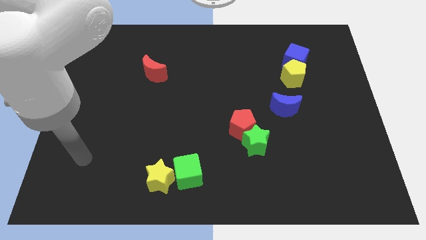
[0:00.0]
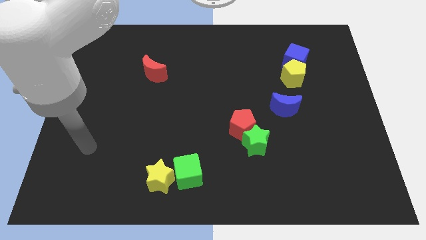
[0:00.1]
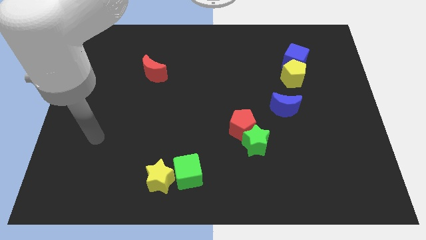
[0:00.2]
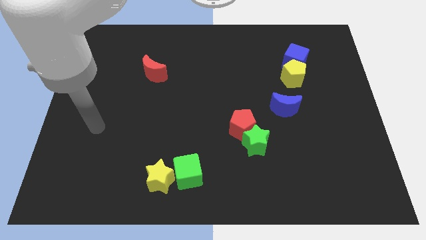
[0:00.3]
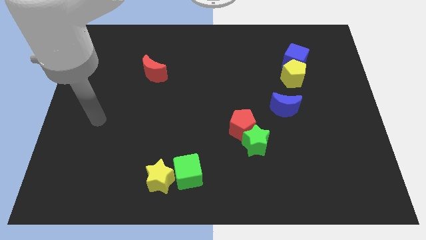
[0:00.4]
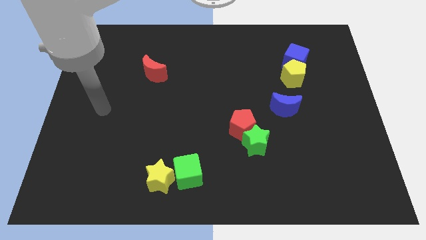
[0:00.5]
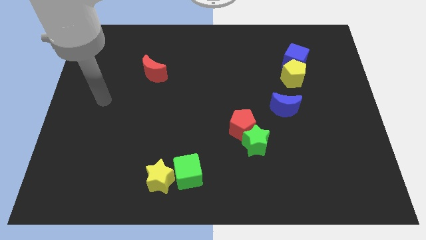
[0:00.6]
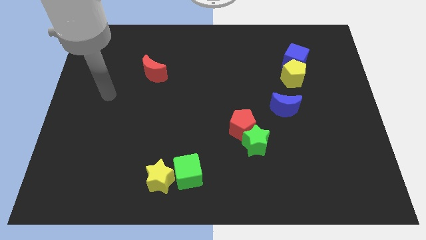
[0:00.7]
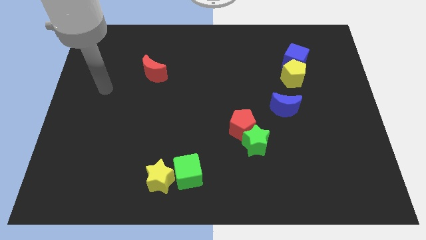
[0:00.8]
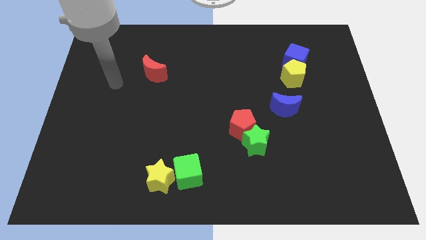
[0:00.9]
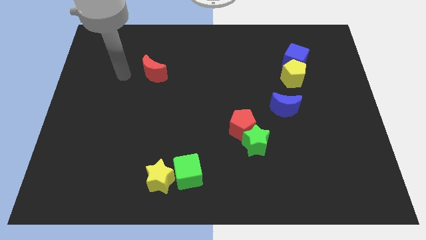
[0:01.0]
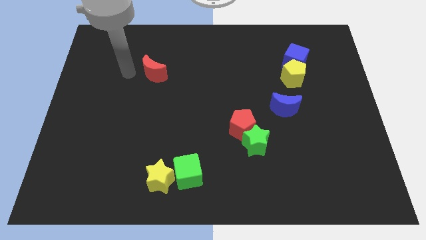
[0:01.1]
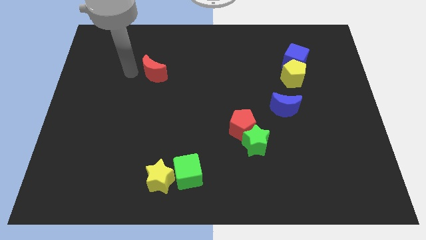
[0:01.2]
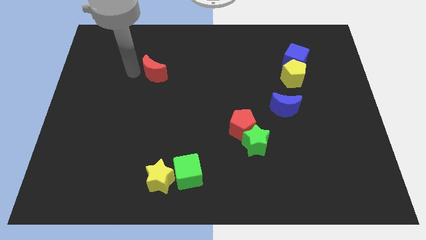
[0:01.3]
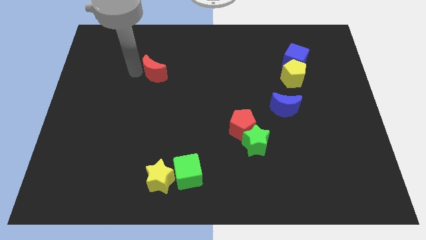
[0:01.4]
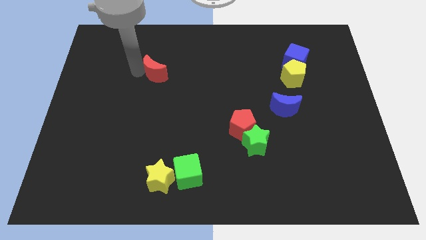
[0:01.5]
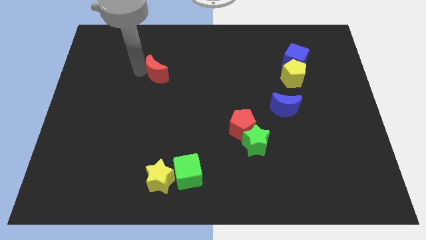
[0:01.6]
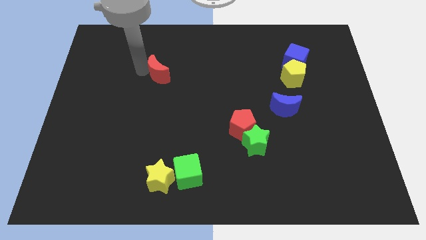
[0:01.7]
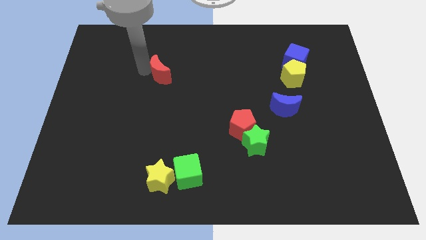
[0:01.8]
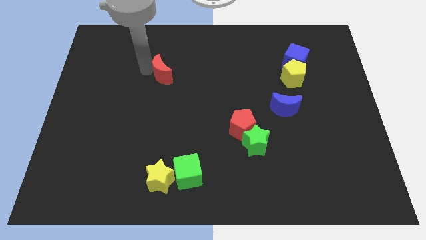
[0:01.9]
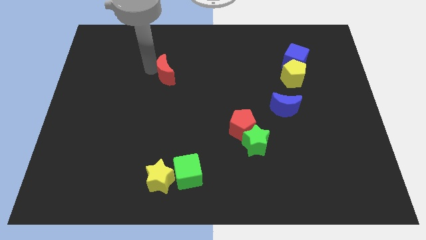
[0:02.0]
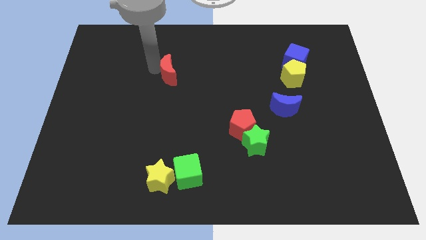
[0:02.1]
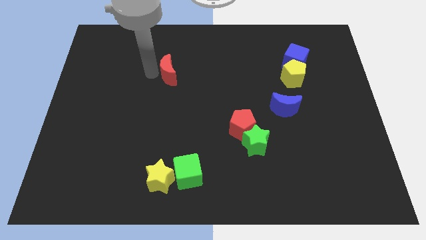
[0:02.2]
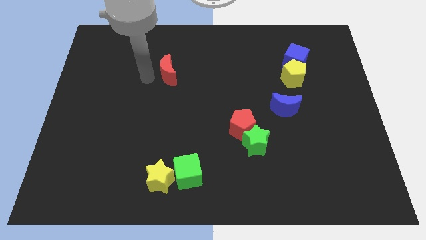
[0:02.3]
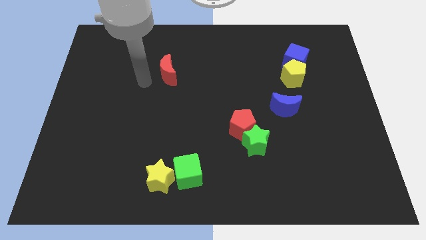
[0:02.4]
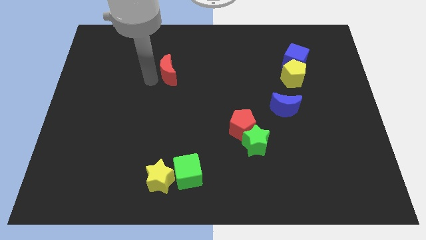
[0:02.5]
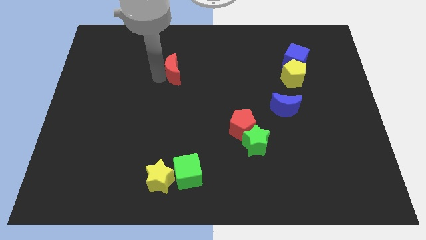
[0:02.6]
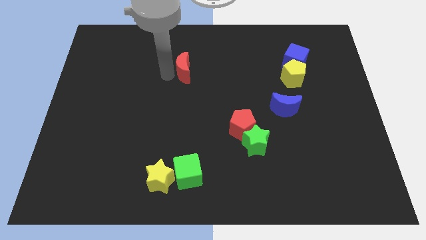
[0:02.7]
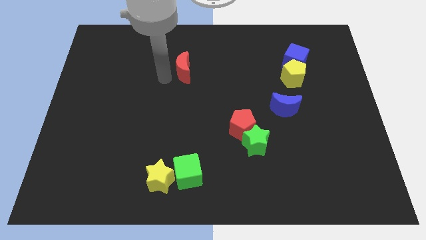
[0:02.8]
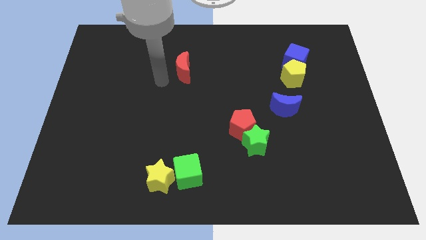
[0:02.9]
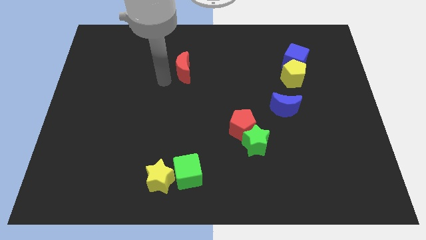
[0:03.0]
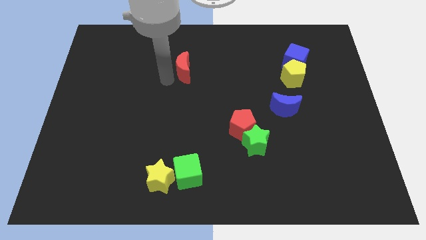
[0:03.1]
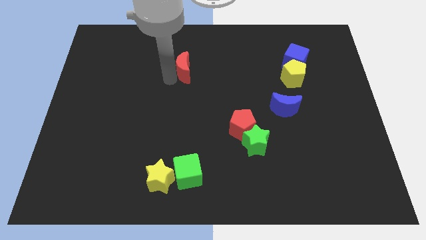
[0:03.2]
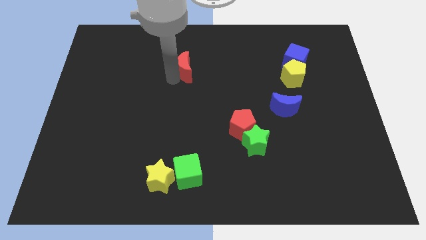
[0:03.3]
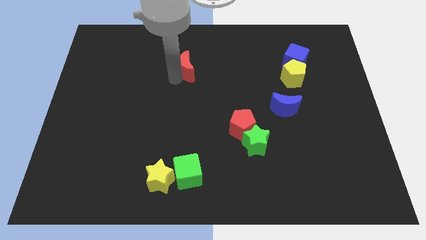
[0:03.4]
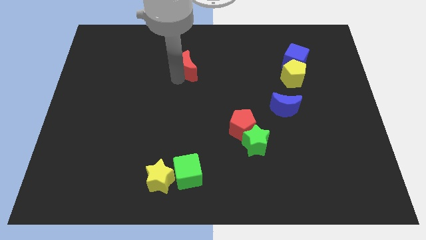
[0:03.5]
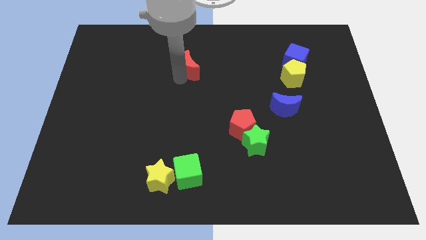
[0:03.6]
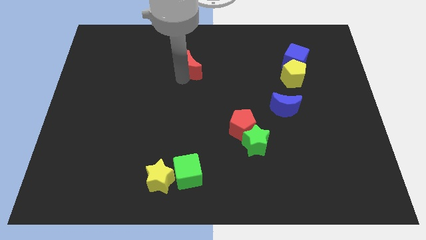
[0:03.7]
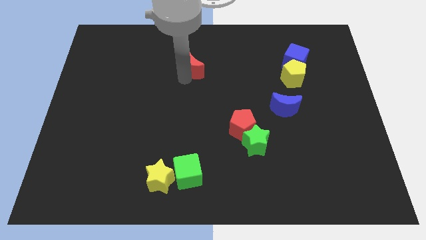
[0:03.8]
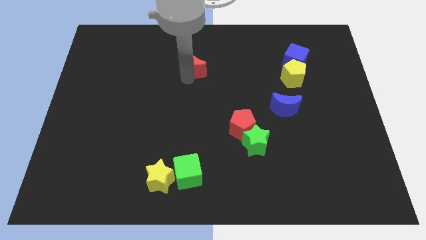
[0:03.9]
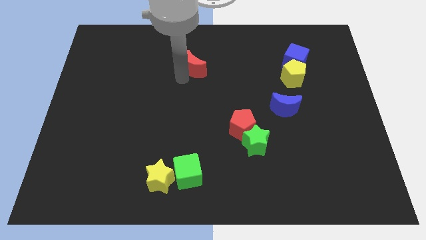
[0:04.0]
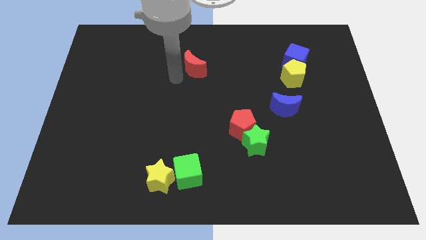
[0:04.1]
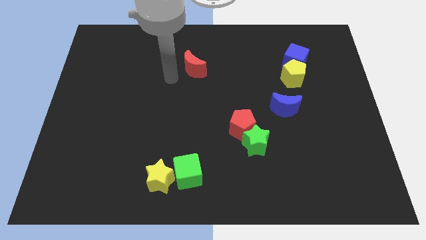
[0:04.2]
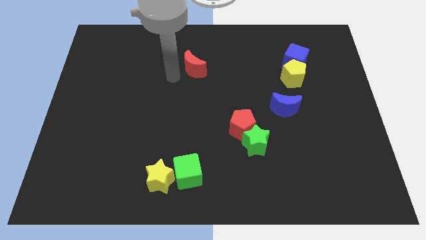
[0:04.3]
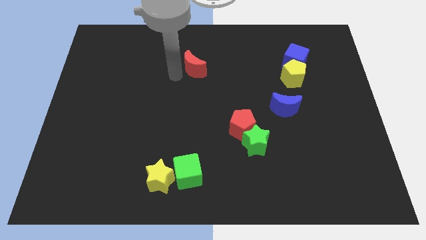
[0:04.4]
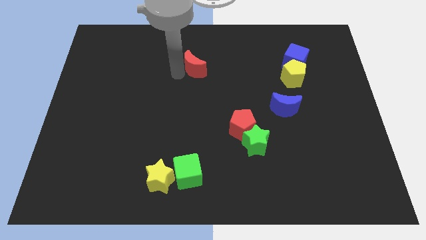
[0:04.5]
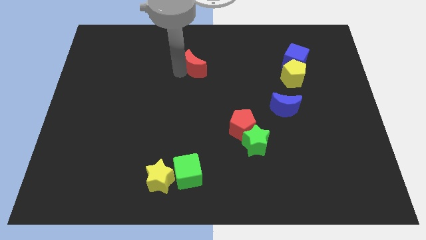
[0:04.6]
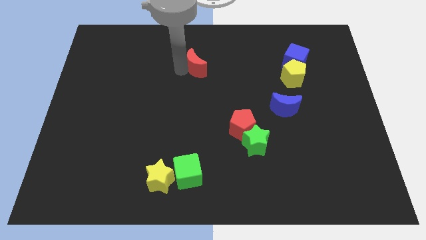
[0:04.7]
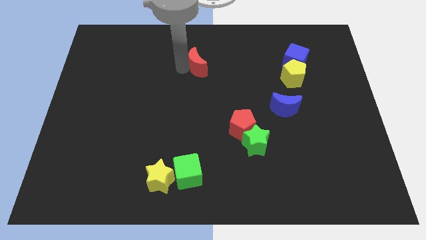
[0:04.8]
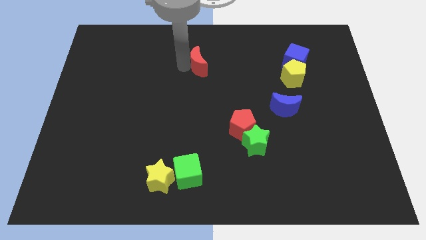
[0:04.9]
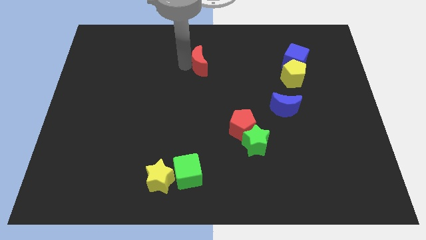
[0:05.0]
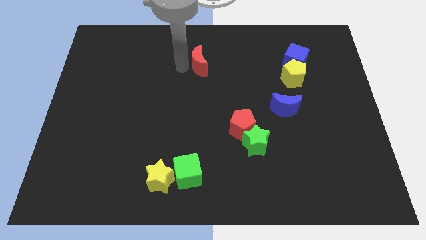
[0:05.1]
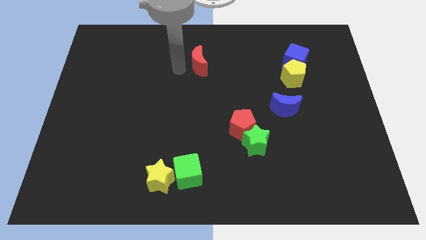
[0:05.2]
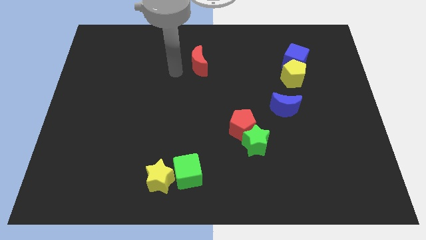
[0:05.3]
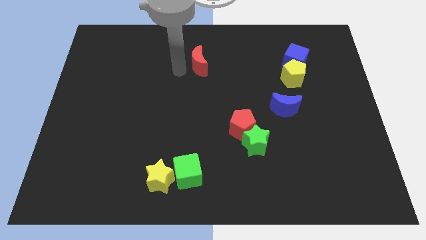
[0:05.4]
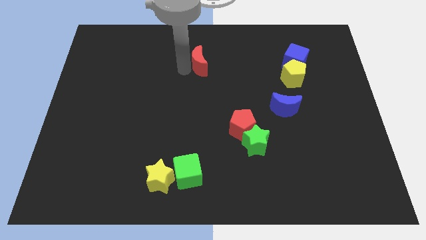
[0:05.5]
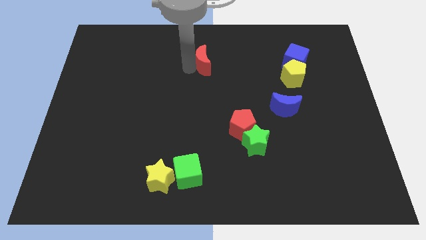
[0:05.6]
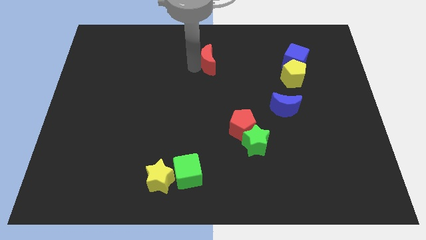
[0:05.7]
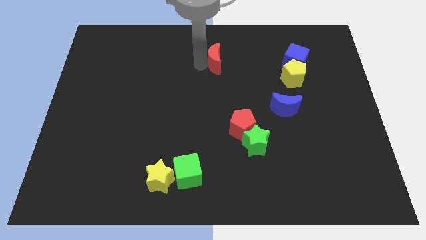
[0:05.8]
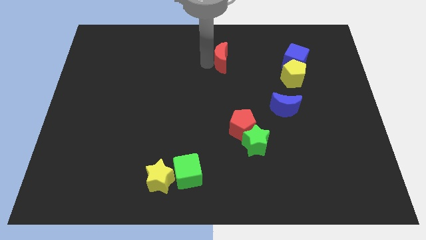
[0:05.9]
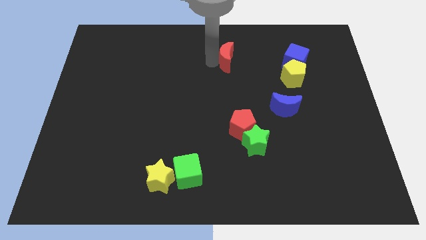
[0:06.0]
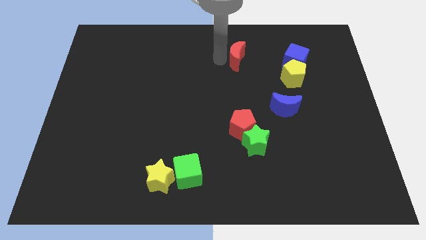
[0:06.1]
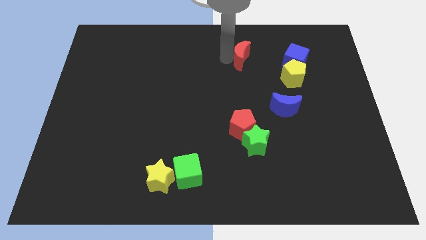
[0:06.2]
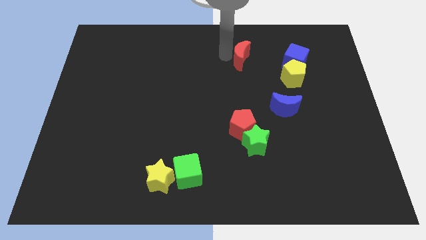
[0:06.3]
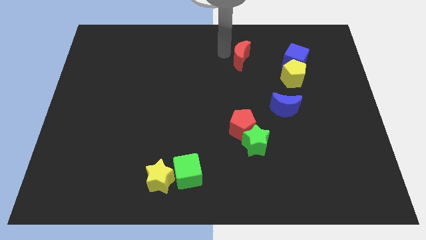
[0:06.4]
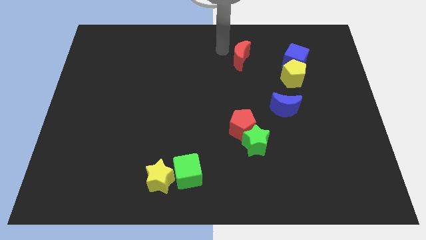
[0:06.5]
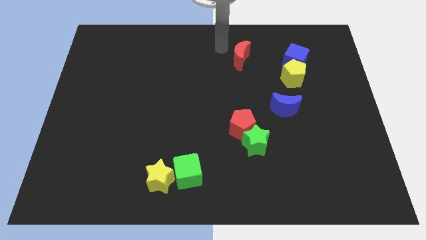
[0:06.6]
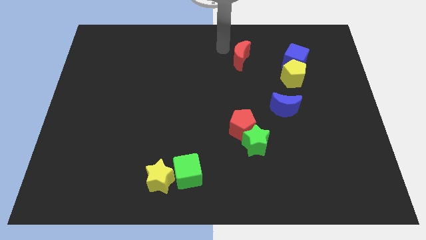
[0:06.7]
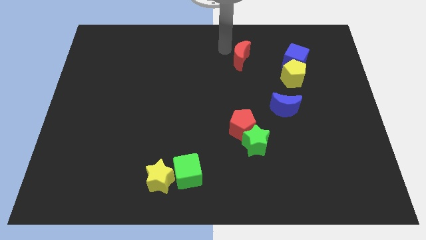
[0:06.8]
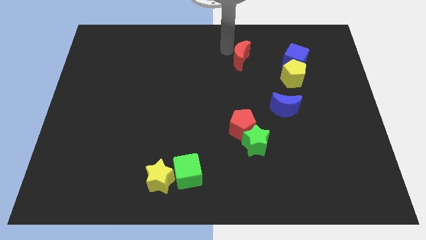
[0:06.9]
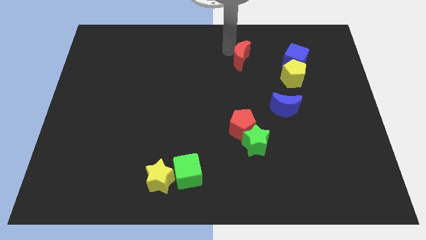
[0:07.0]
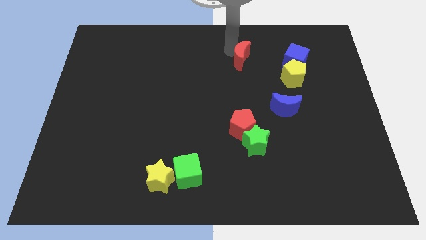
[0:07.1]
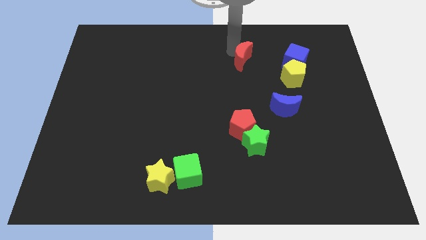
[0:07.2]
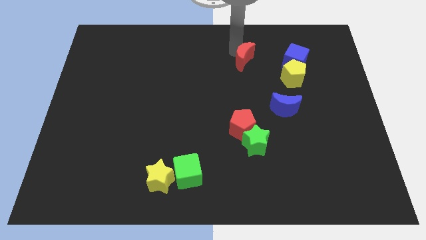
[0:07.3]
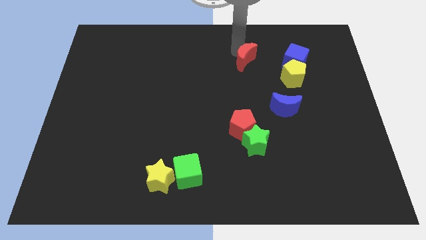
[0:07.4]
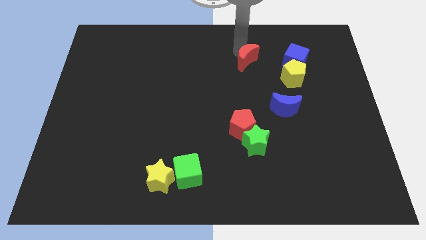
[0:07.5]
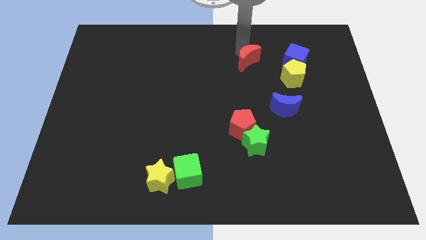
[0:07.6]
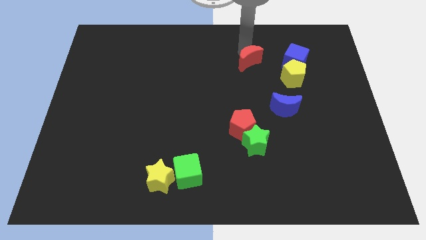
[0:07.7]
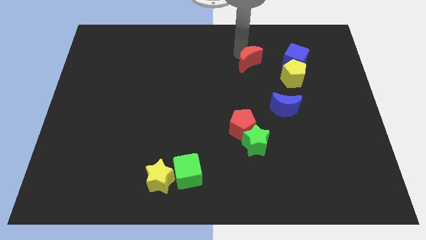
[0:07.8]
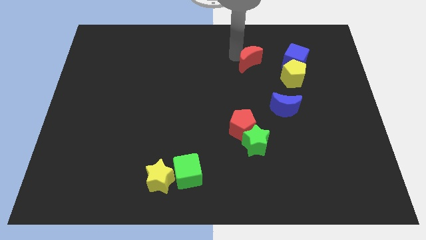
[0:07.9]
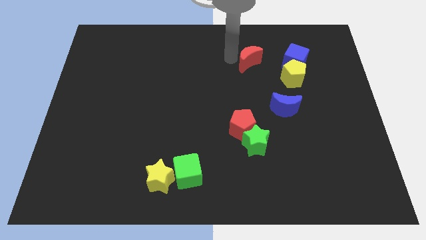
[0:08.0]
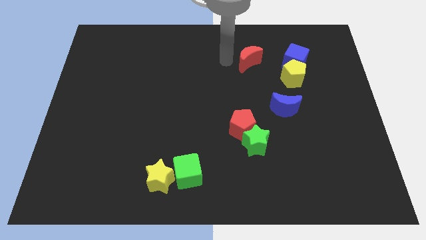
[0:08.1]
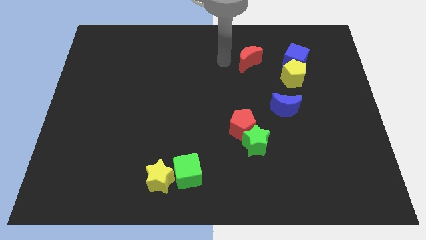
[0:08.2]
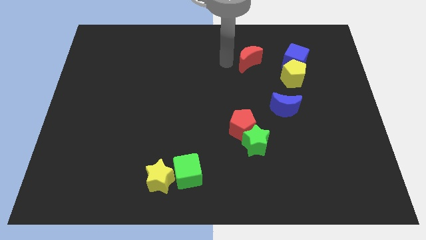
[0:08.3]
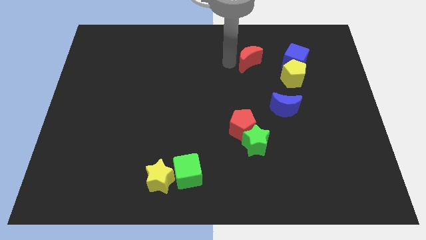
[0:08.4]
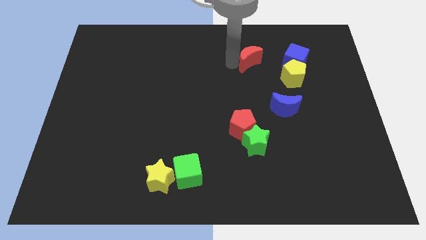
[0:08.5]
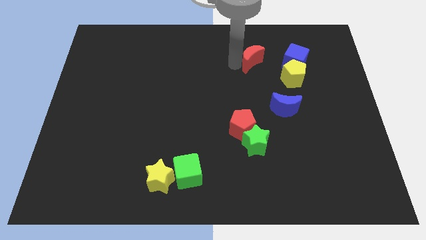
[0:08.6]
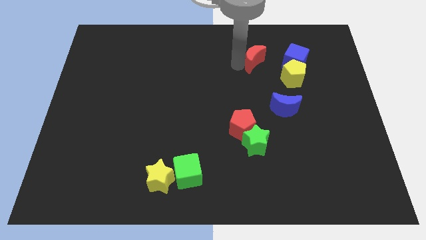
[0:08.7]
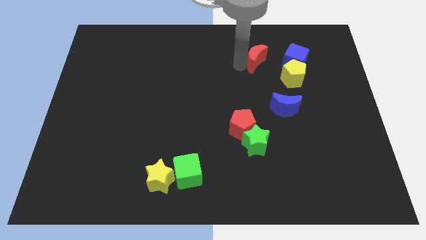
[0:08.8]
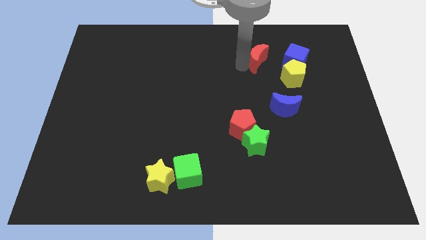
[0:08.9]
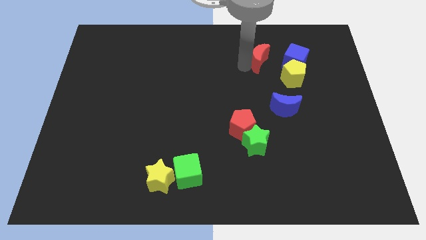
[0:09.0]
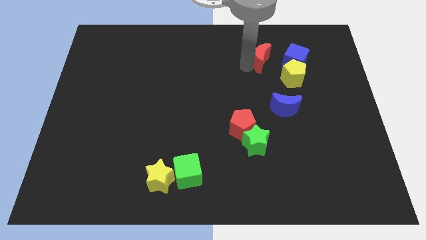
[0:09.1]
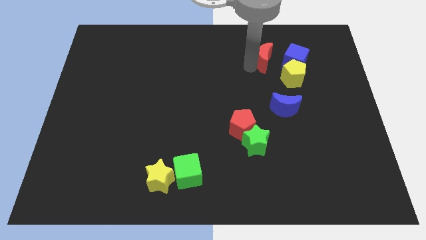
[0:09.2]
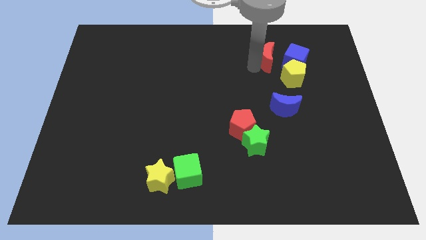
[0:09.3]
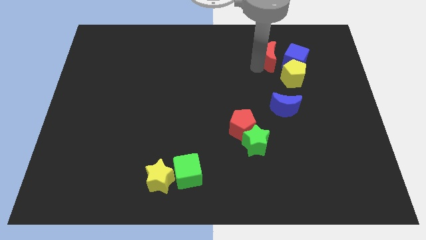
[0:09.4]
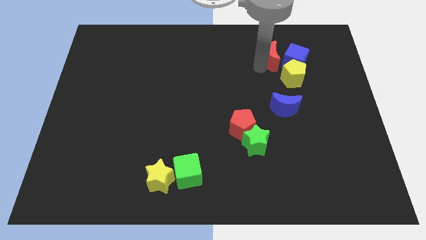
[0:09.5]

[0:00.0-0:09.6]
push the red moon close to the blue cube
